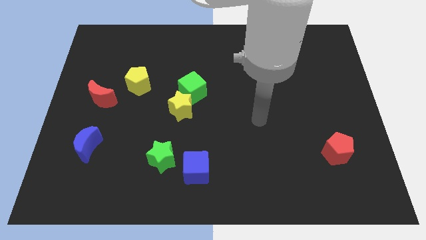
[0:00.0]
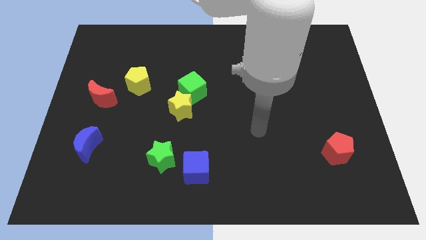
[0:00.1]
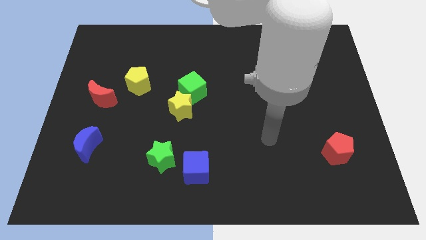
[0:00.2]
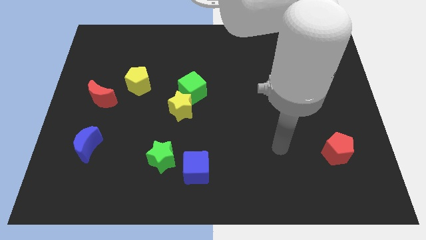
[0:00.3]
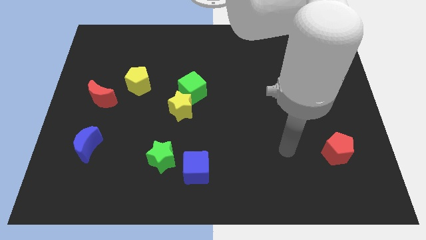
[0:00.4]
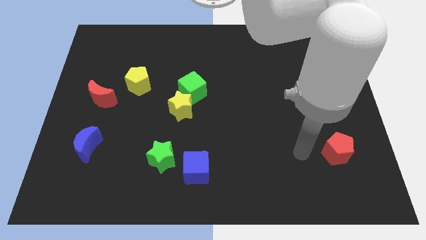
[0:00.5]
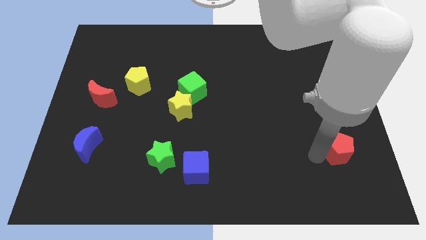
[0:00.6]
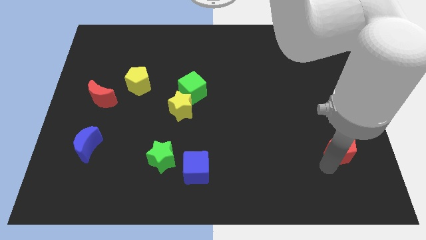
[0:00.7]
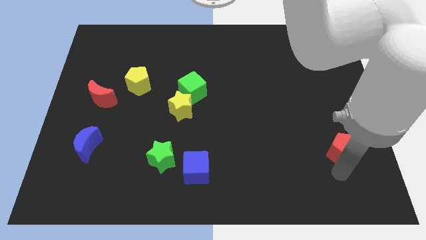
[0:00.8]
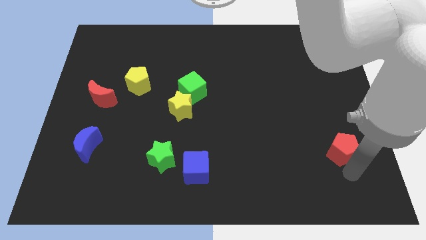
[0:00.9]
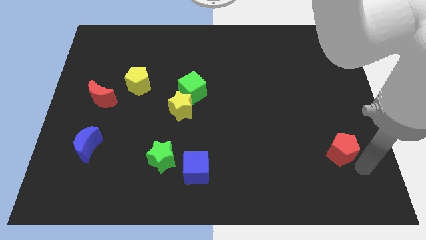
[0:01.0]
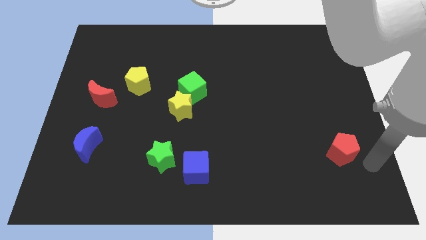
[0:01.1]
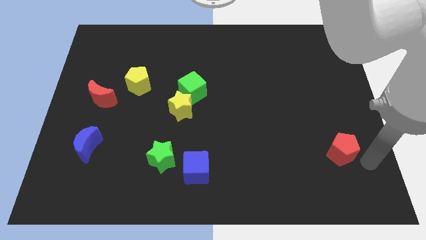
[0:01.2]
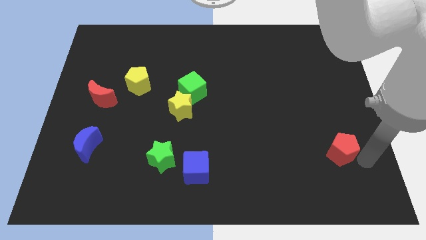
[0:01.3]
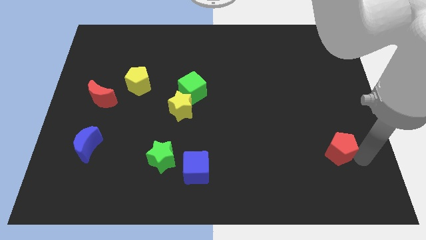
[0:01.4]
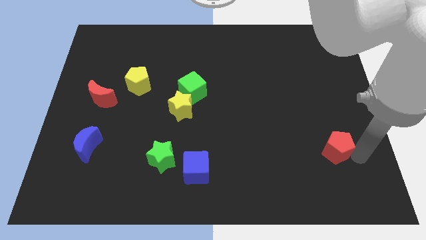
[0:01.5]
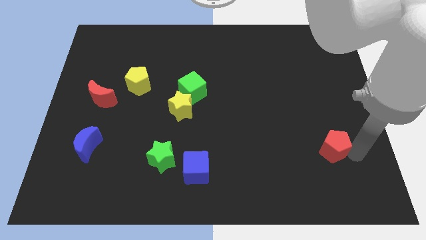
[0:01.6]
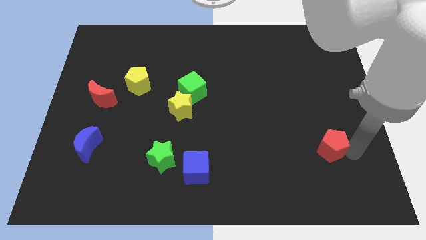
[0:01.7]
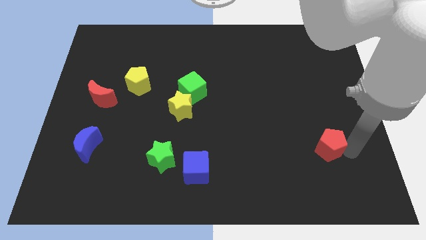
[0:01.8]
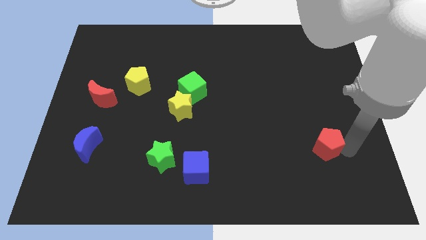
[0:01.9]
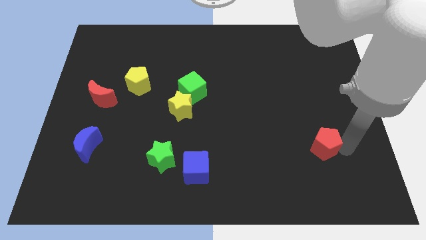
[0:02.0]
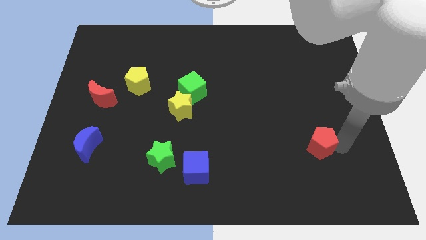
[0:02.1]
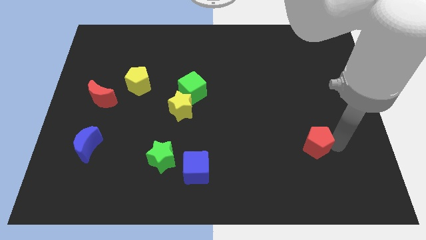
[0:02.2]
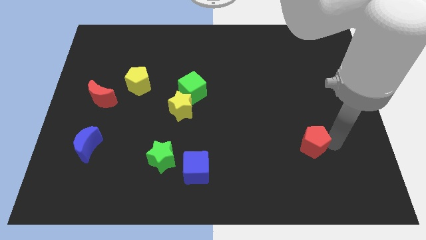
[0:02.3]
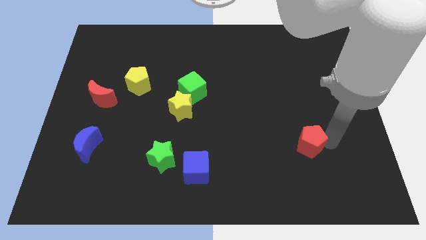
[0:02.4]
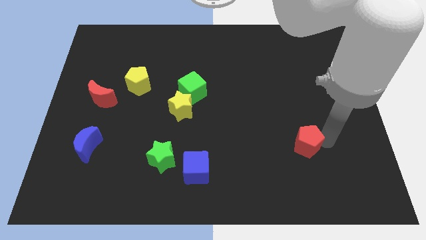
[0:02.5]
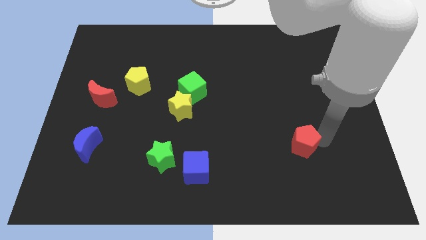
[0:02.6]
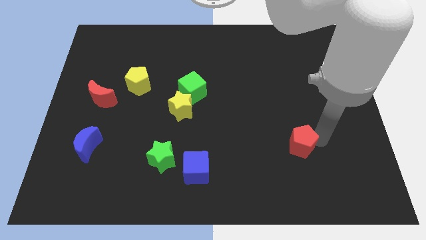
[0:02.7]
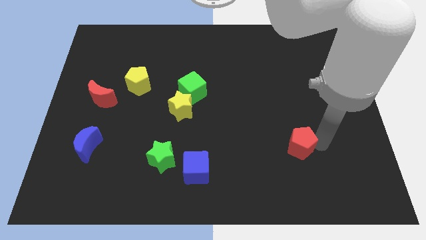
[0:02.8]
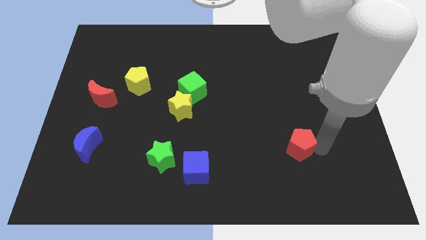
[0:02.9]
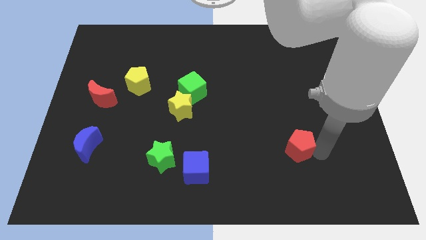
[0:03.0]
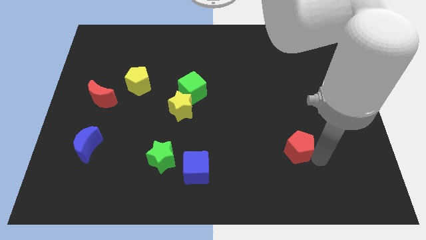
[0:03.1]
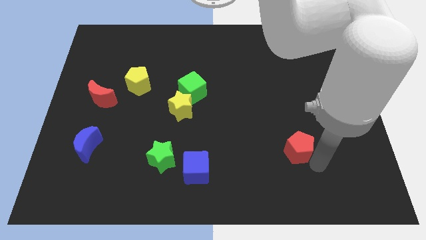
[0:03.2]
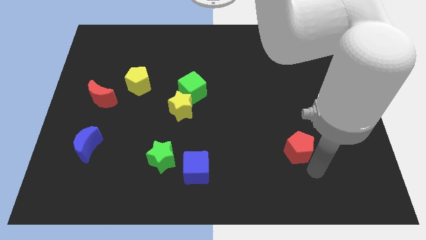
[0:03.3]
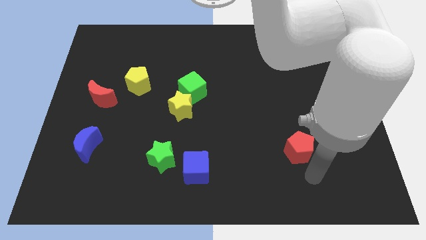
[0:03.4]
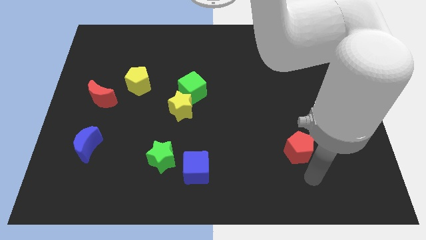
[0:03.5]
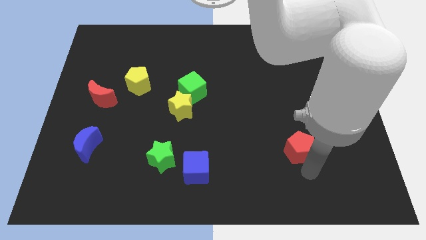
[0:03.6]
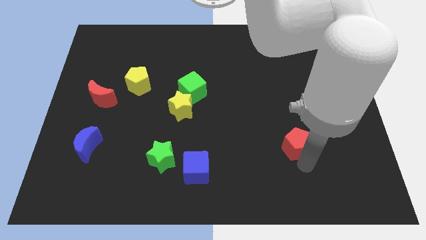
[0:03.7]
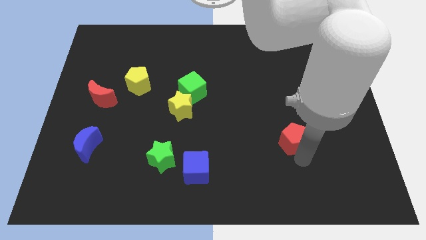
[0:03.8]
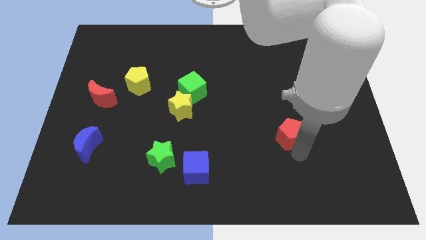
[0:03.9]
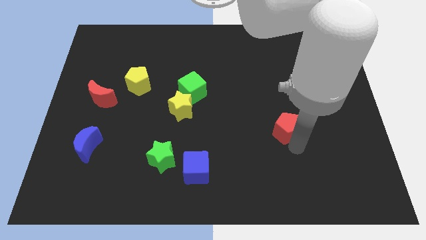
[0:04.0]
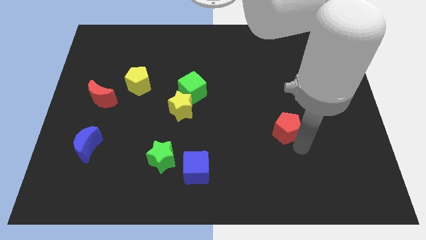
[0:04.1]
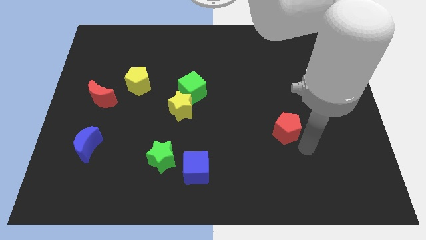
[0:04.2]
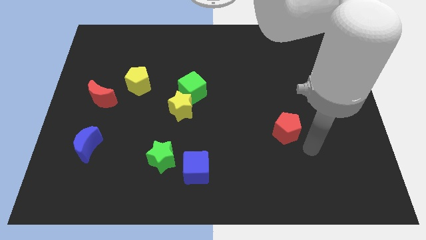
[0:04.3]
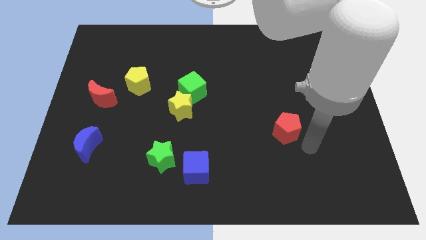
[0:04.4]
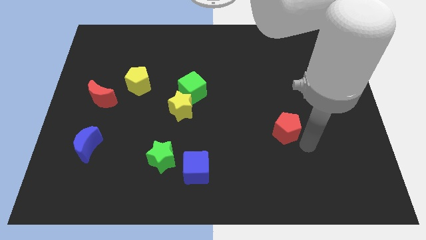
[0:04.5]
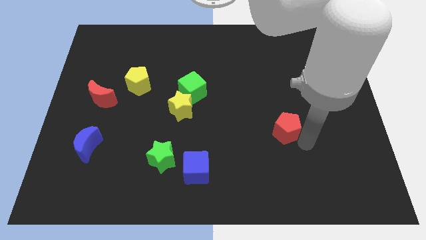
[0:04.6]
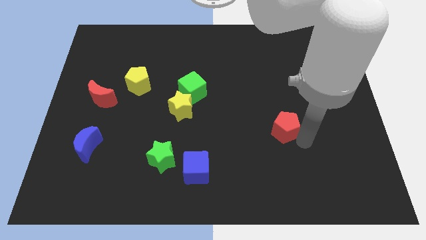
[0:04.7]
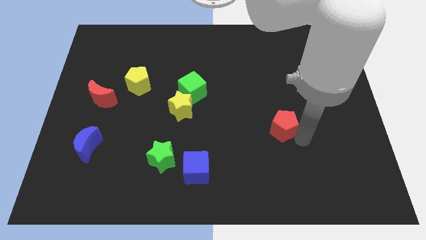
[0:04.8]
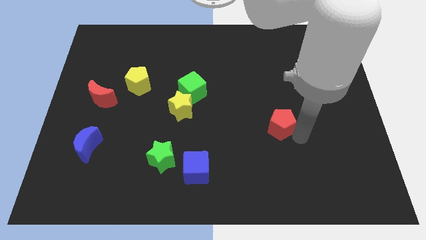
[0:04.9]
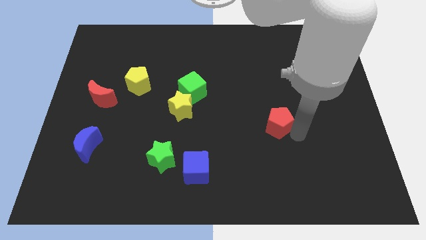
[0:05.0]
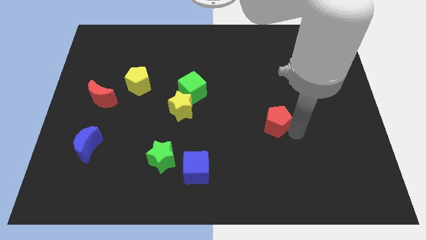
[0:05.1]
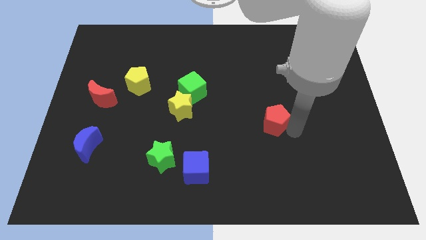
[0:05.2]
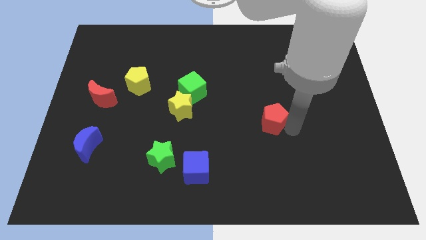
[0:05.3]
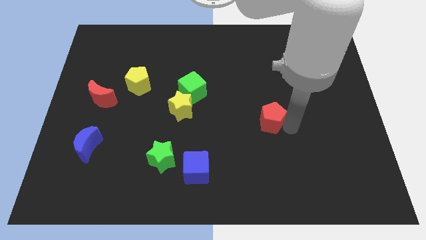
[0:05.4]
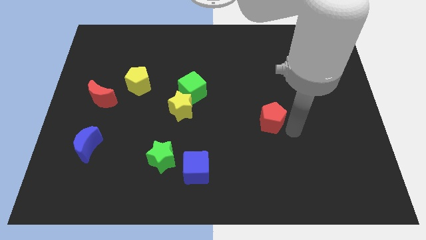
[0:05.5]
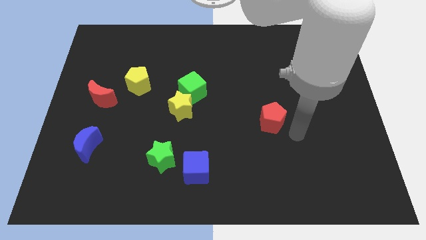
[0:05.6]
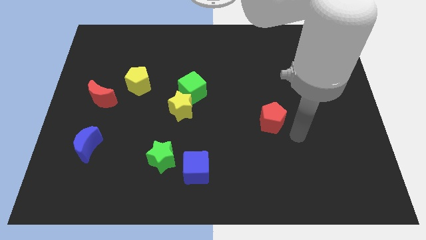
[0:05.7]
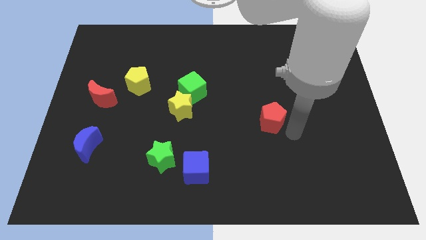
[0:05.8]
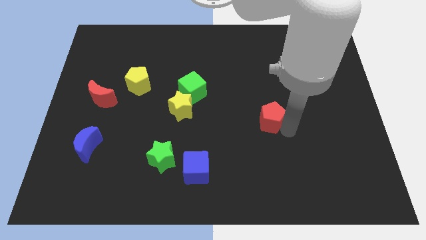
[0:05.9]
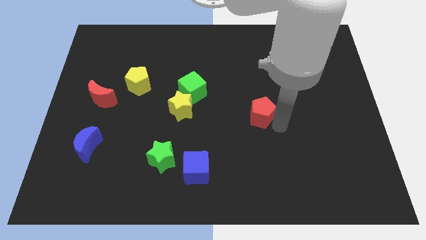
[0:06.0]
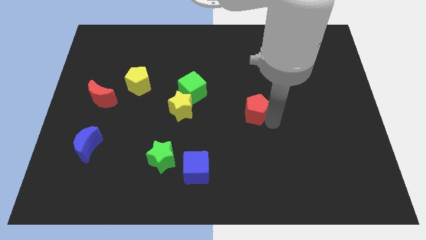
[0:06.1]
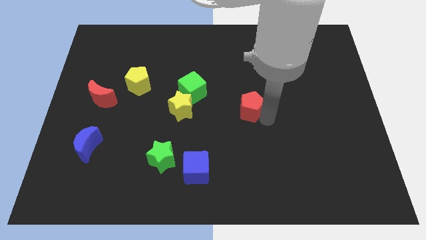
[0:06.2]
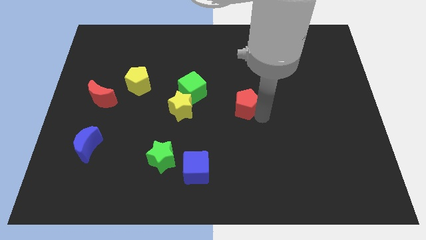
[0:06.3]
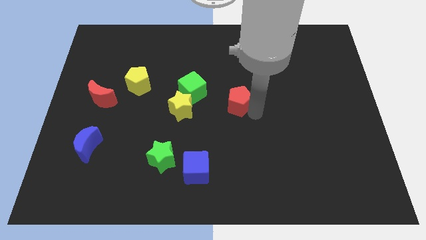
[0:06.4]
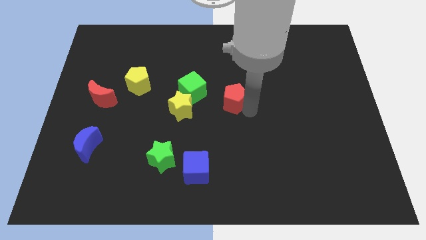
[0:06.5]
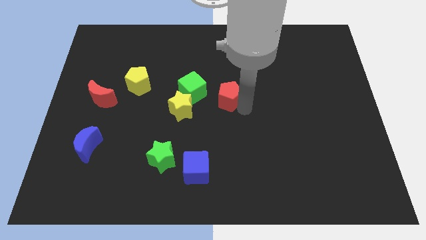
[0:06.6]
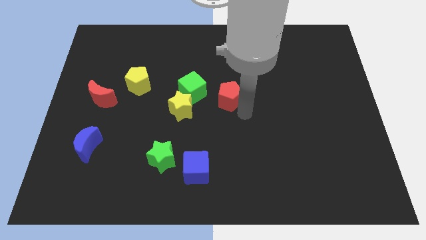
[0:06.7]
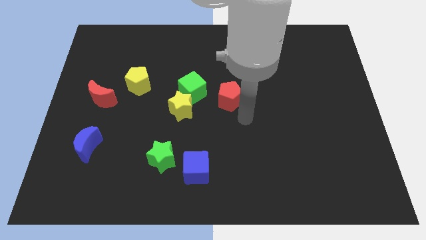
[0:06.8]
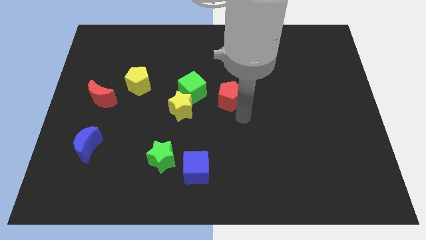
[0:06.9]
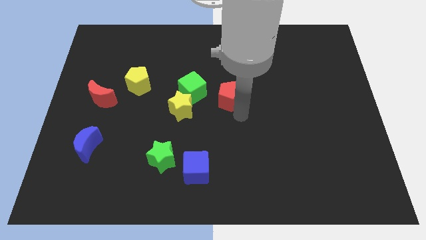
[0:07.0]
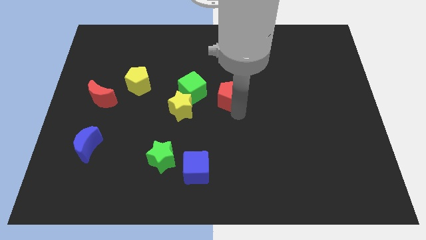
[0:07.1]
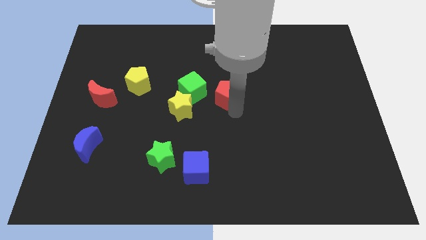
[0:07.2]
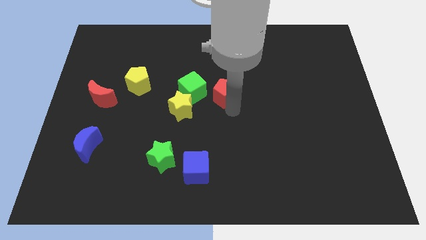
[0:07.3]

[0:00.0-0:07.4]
put the red pentagon diagonally up and to the right of the yellow star
